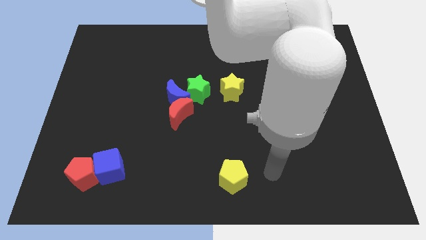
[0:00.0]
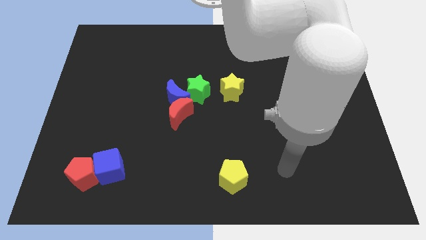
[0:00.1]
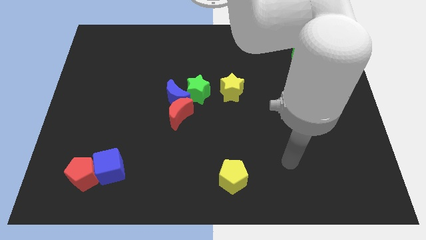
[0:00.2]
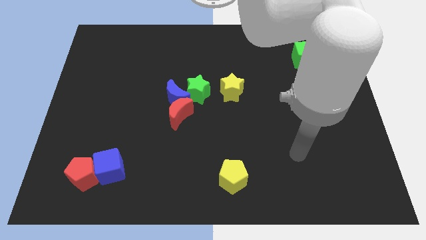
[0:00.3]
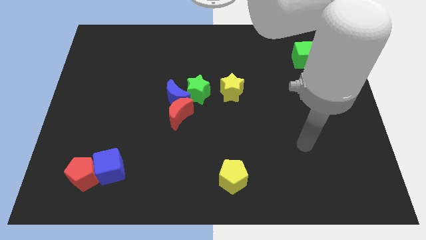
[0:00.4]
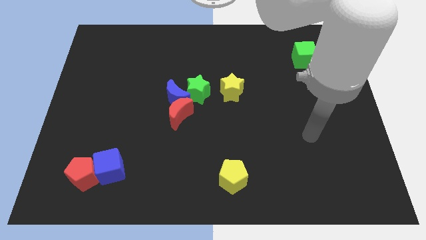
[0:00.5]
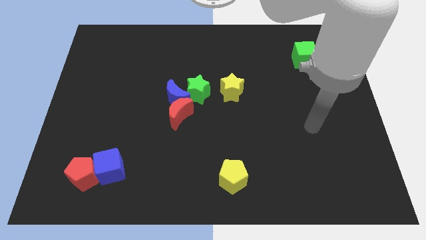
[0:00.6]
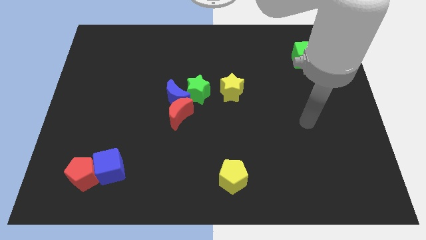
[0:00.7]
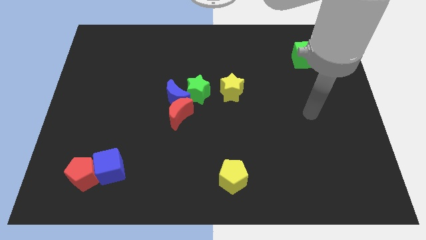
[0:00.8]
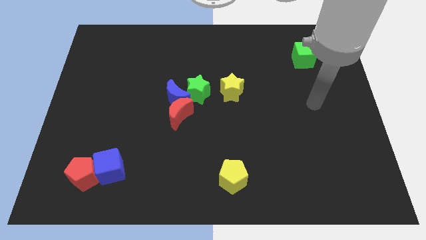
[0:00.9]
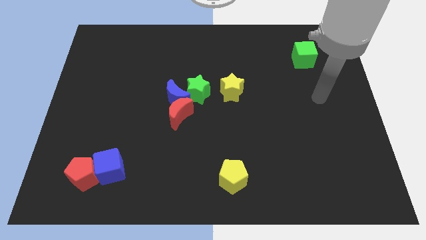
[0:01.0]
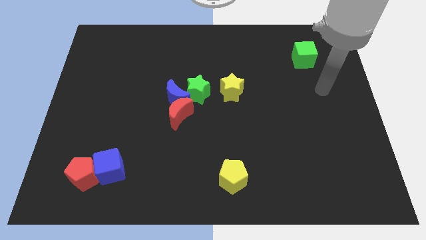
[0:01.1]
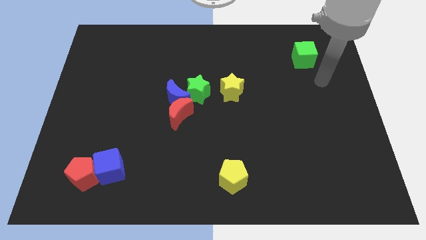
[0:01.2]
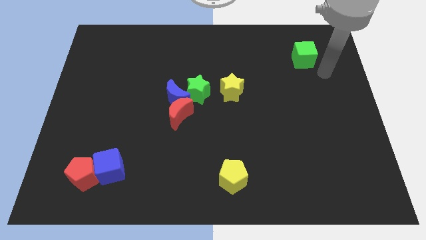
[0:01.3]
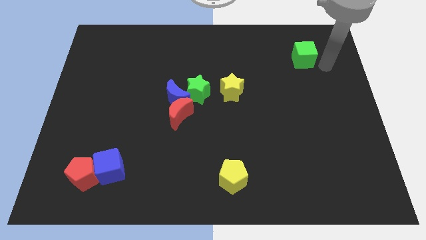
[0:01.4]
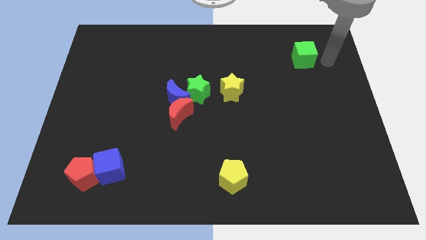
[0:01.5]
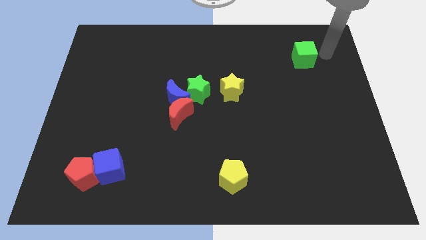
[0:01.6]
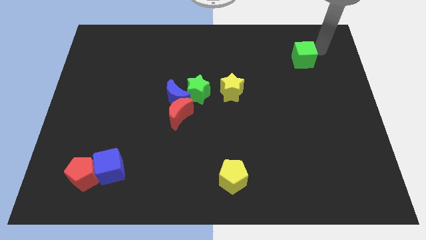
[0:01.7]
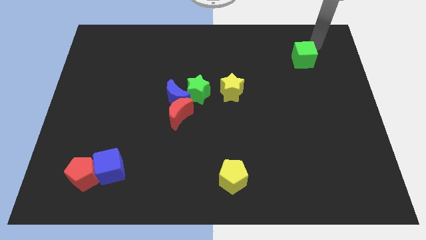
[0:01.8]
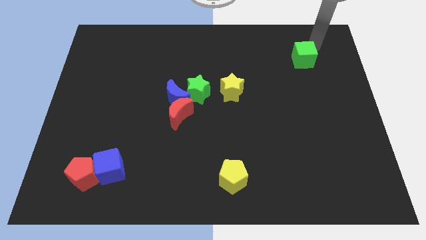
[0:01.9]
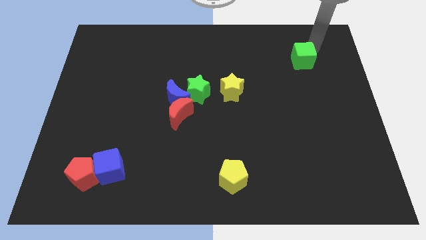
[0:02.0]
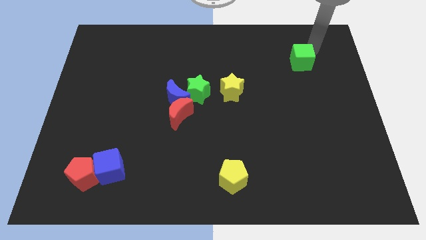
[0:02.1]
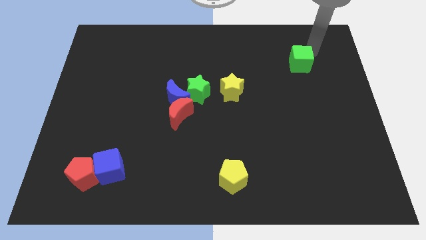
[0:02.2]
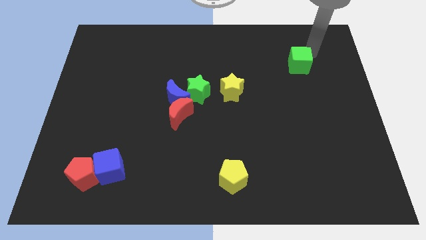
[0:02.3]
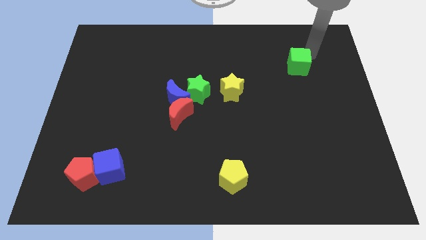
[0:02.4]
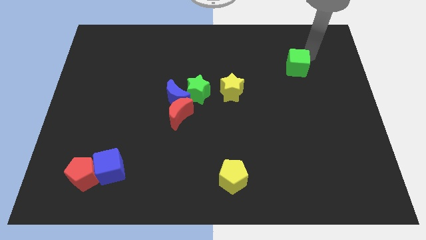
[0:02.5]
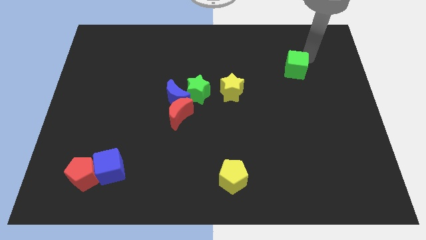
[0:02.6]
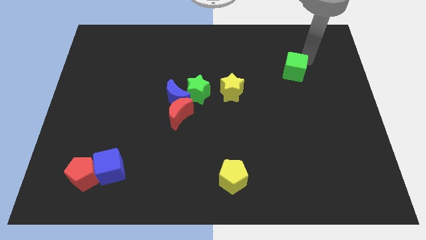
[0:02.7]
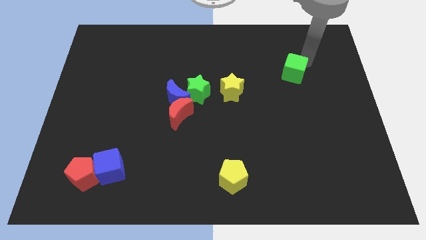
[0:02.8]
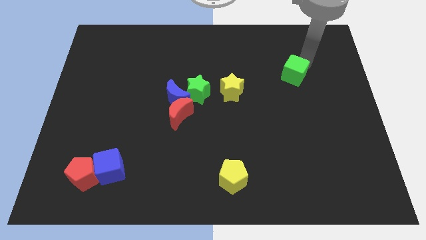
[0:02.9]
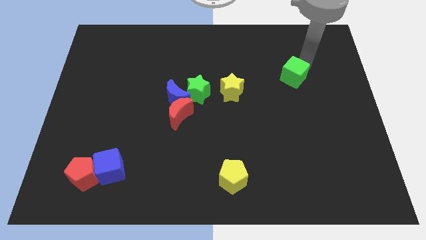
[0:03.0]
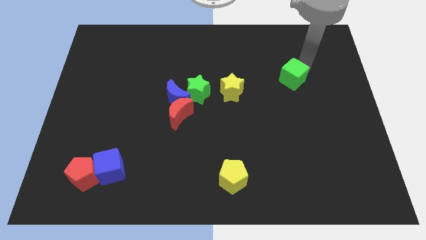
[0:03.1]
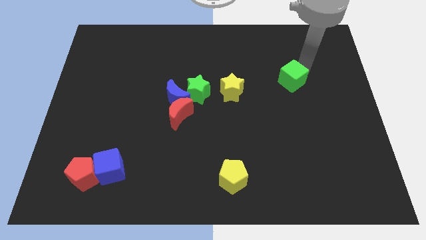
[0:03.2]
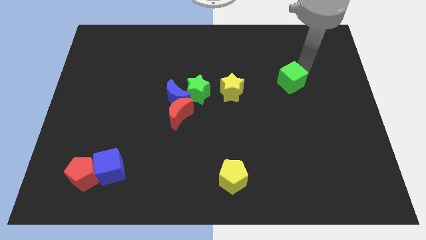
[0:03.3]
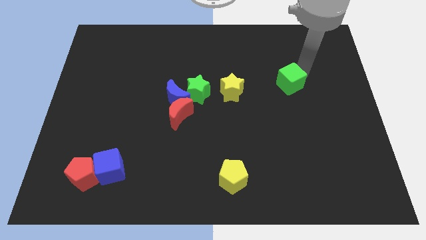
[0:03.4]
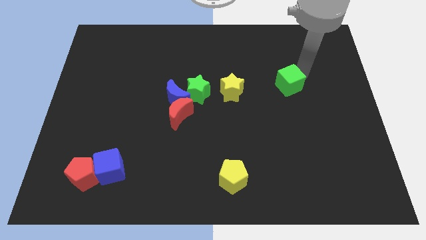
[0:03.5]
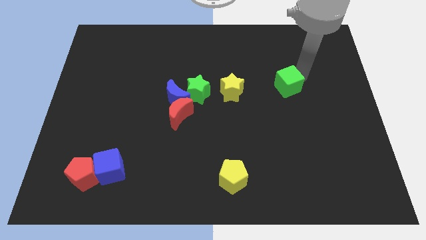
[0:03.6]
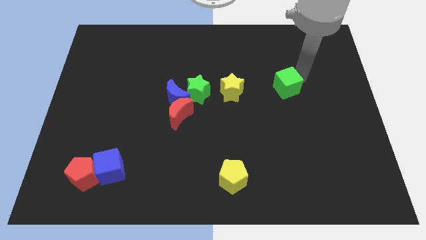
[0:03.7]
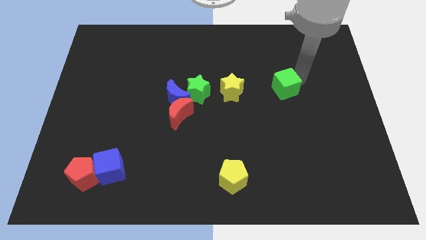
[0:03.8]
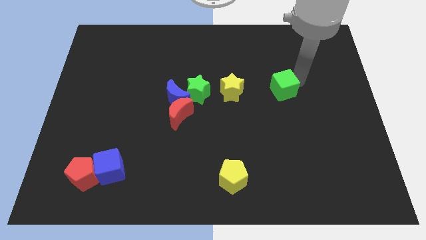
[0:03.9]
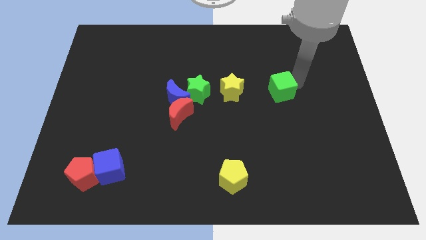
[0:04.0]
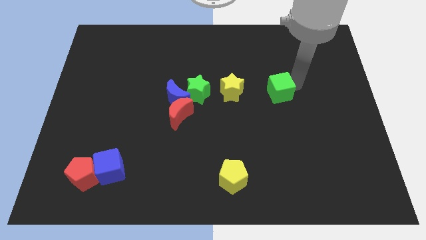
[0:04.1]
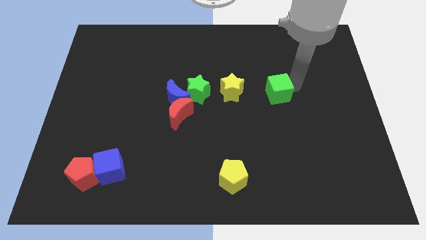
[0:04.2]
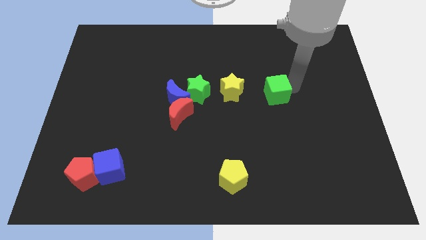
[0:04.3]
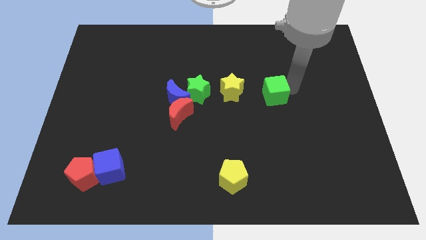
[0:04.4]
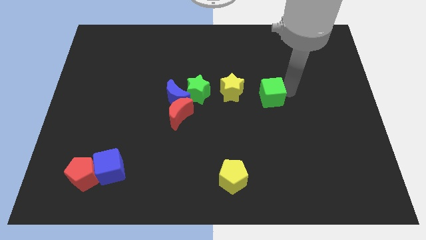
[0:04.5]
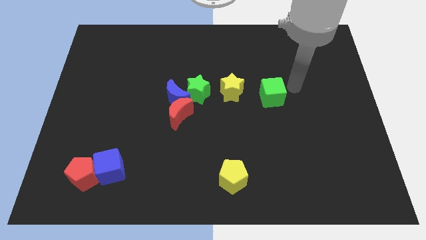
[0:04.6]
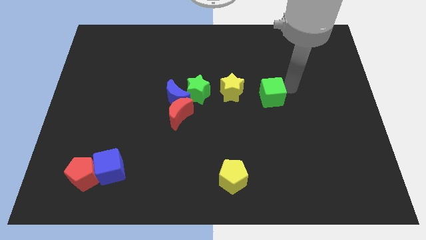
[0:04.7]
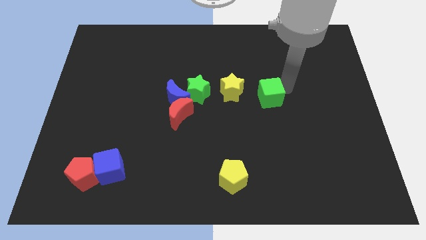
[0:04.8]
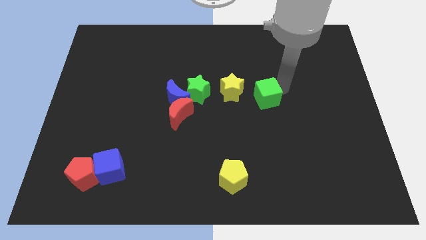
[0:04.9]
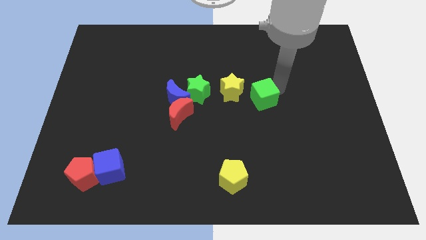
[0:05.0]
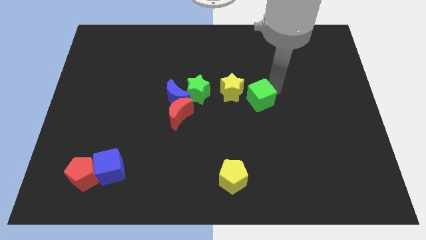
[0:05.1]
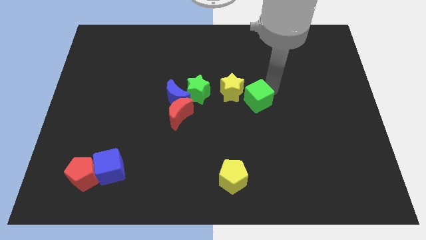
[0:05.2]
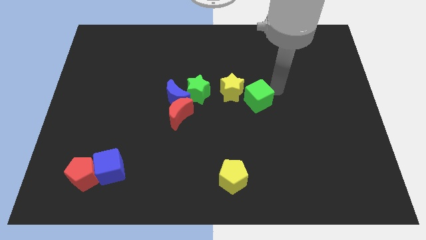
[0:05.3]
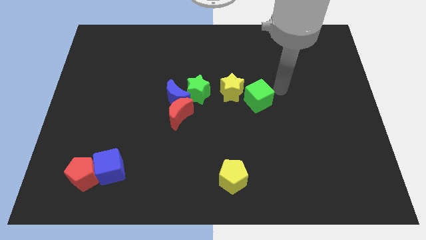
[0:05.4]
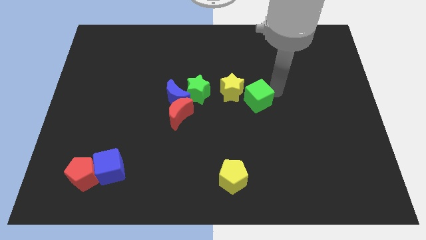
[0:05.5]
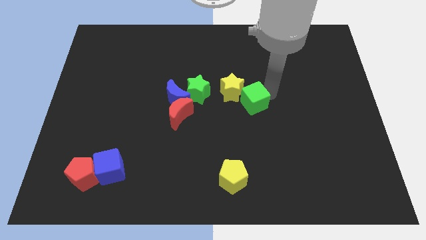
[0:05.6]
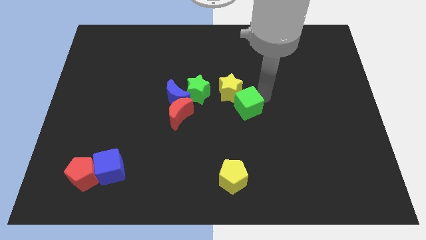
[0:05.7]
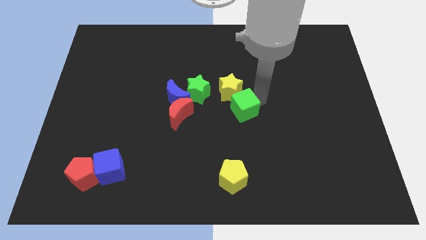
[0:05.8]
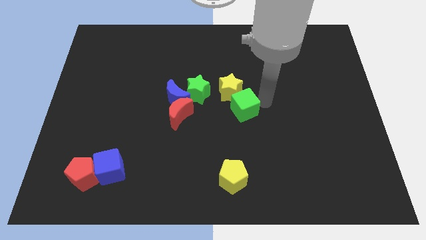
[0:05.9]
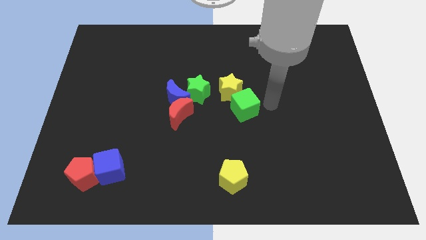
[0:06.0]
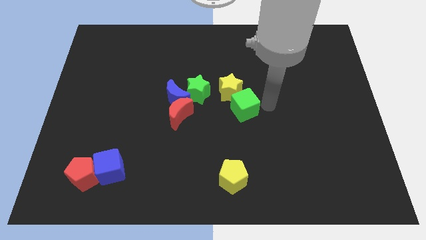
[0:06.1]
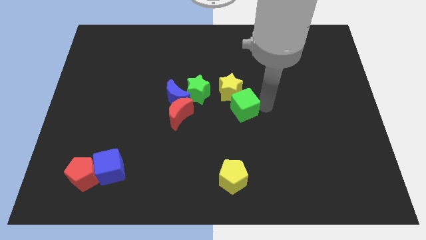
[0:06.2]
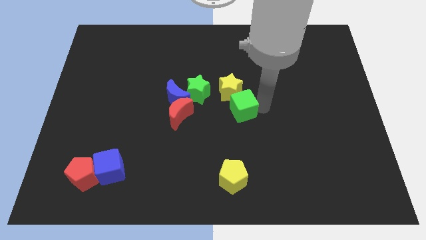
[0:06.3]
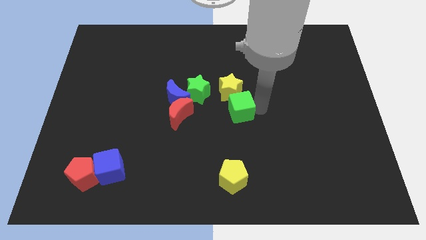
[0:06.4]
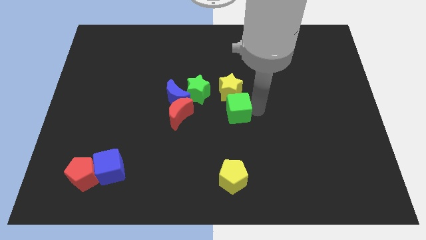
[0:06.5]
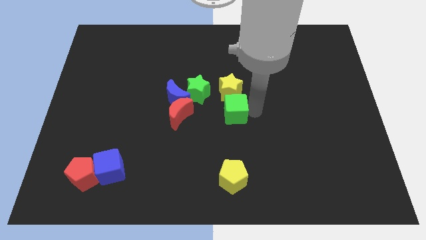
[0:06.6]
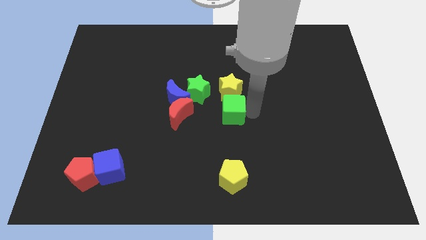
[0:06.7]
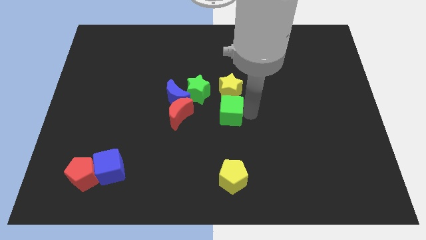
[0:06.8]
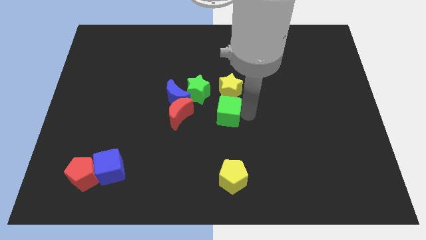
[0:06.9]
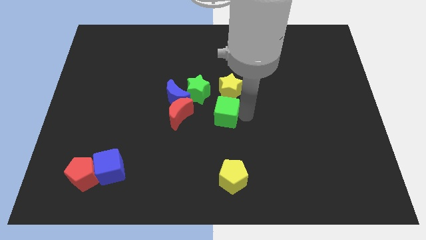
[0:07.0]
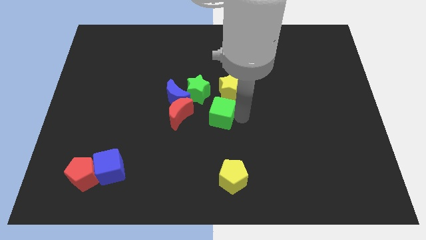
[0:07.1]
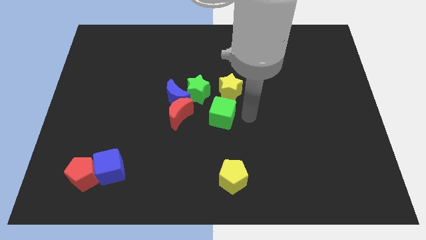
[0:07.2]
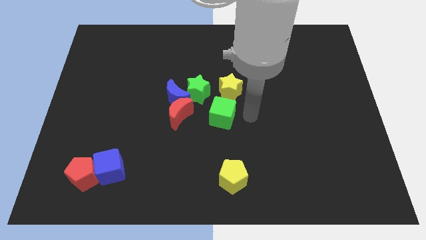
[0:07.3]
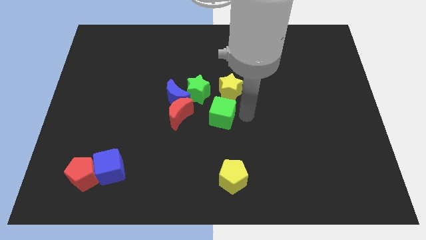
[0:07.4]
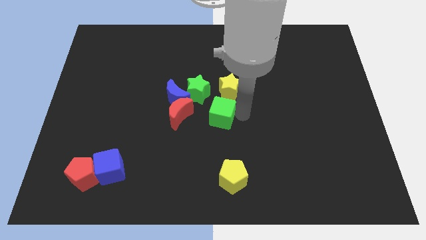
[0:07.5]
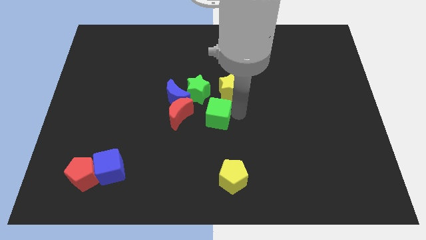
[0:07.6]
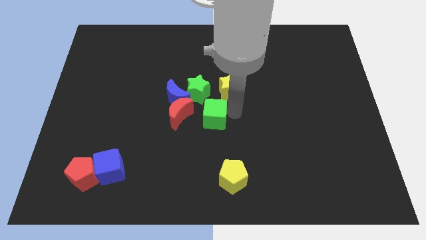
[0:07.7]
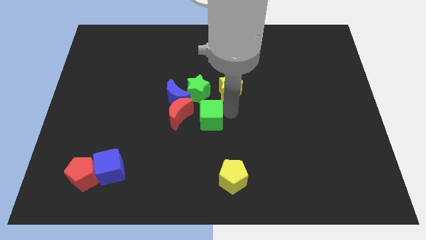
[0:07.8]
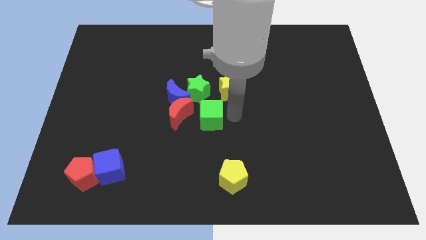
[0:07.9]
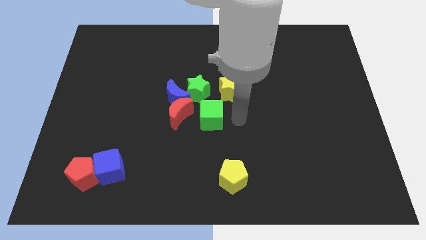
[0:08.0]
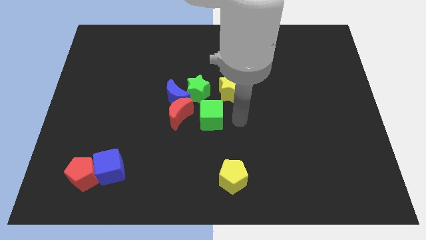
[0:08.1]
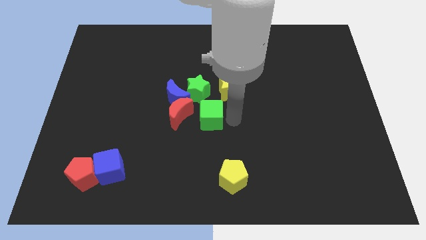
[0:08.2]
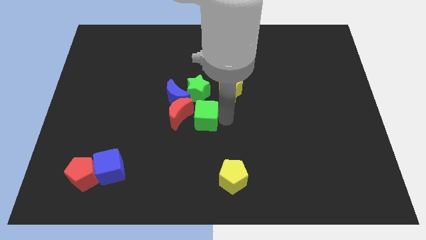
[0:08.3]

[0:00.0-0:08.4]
slide the green cube towards the red moon
